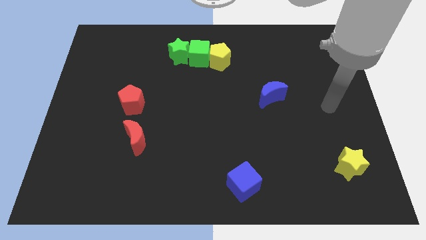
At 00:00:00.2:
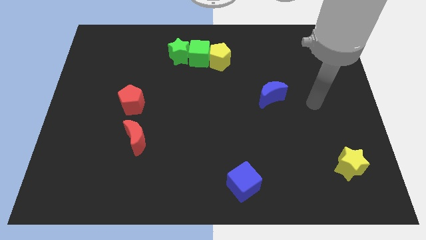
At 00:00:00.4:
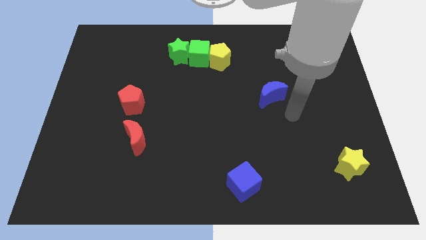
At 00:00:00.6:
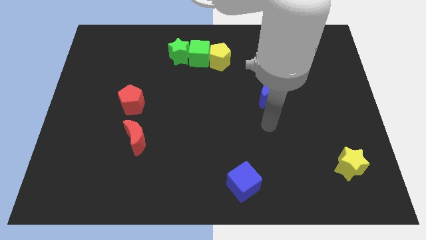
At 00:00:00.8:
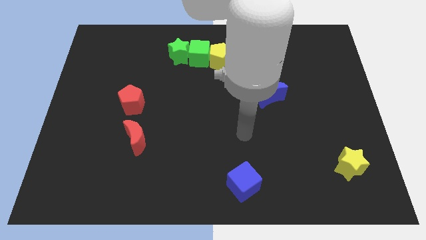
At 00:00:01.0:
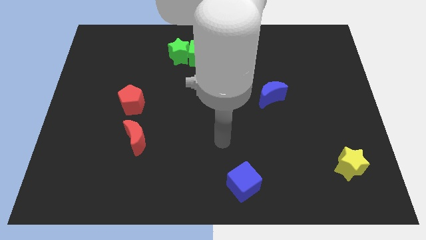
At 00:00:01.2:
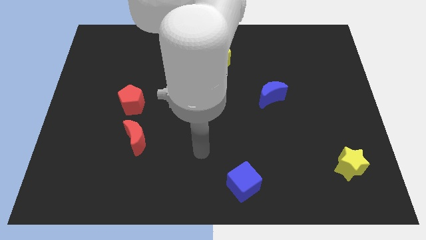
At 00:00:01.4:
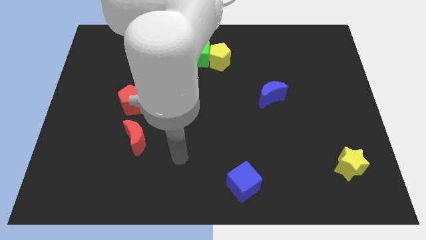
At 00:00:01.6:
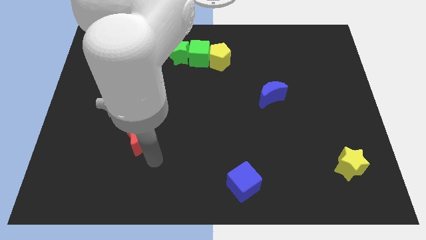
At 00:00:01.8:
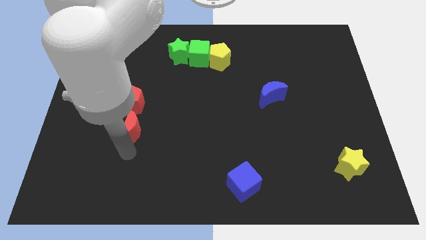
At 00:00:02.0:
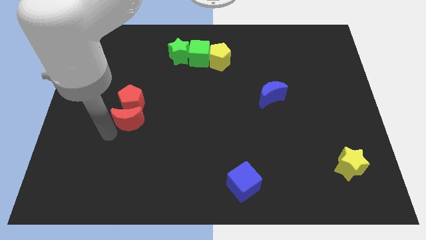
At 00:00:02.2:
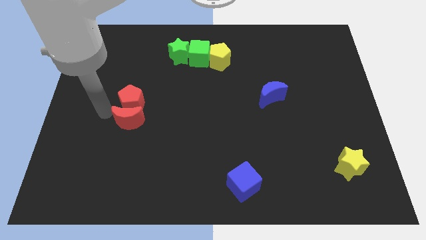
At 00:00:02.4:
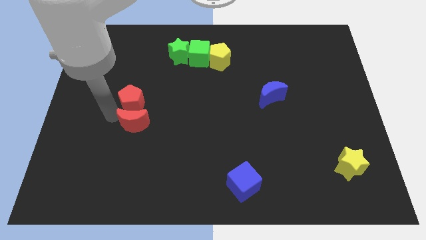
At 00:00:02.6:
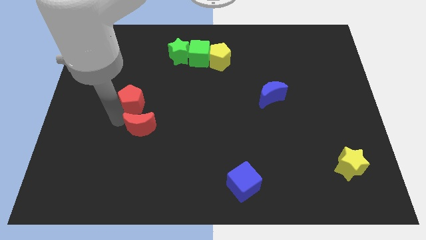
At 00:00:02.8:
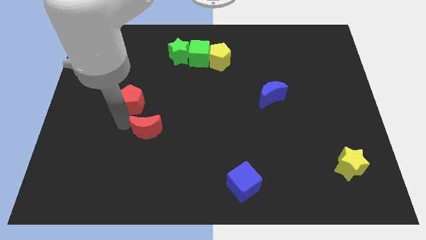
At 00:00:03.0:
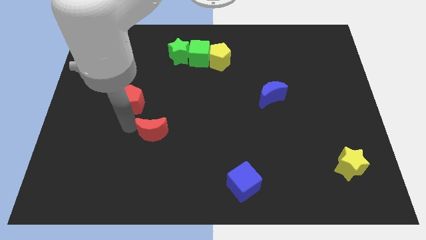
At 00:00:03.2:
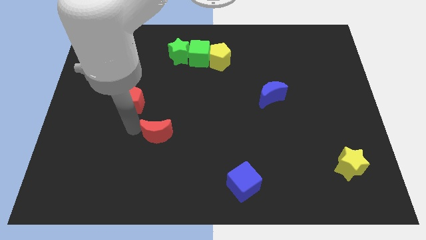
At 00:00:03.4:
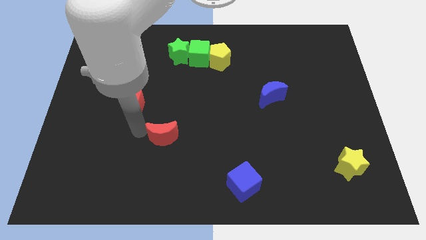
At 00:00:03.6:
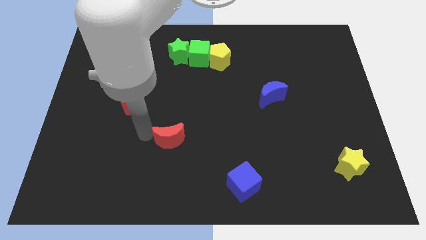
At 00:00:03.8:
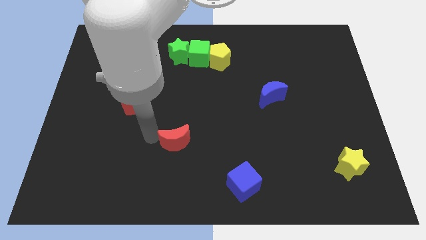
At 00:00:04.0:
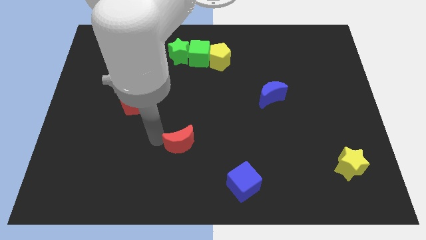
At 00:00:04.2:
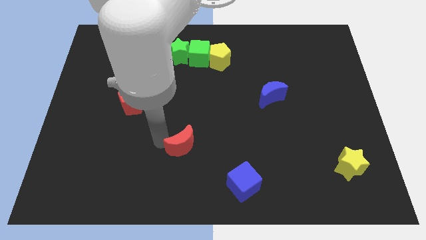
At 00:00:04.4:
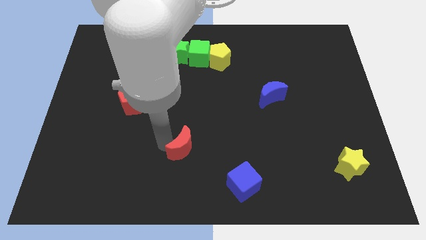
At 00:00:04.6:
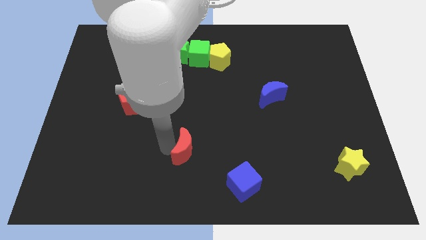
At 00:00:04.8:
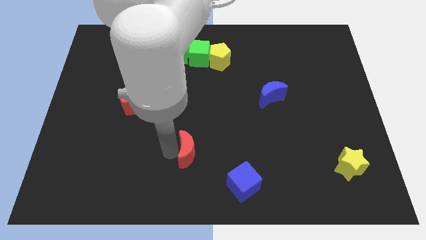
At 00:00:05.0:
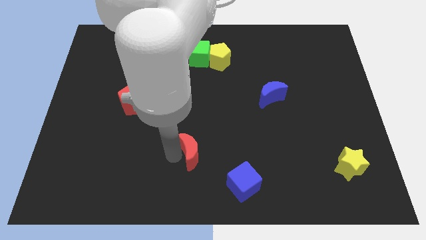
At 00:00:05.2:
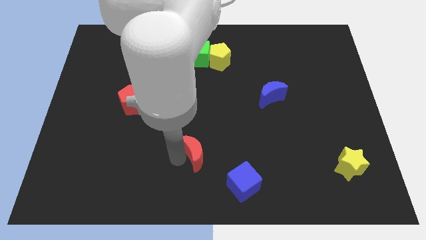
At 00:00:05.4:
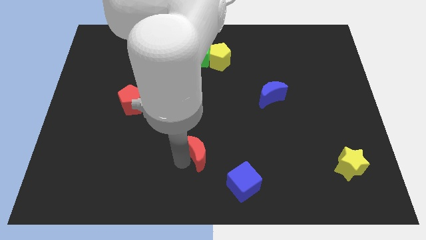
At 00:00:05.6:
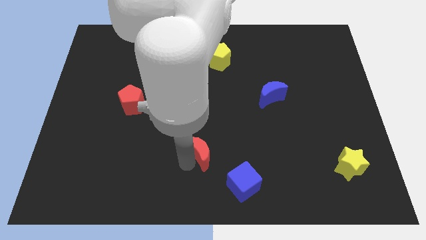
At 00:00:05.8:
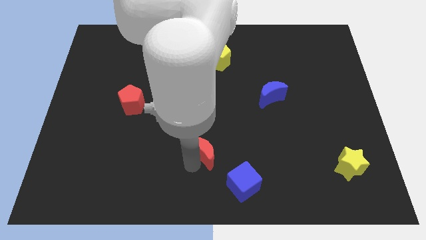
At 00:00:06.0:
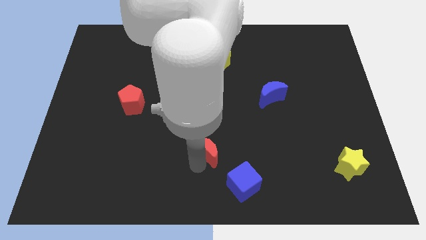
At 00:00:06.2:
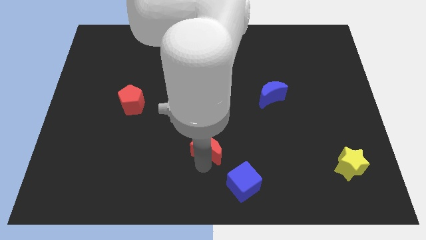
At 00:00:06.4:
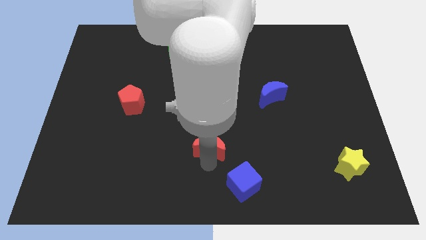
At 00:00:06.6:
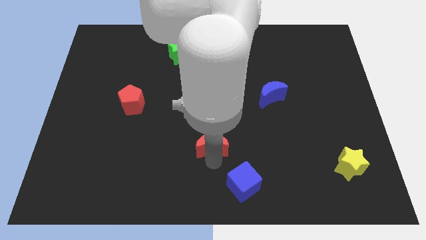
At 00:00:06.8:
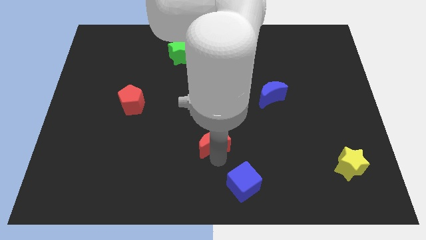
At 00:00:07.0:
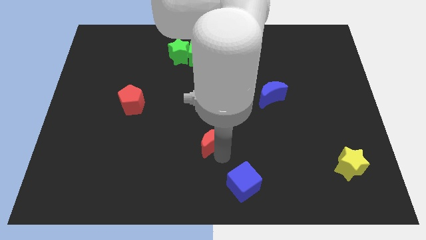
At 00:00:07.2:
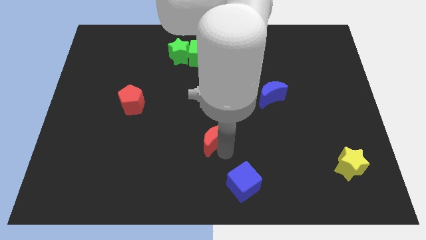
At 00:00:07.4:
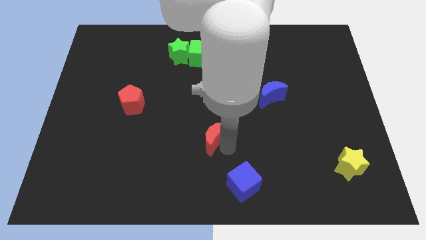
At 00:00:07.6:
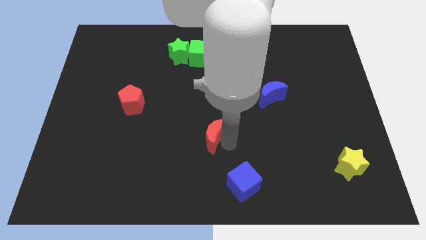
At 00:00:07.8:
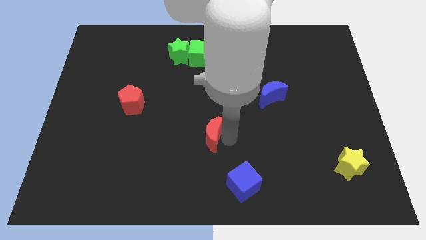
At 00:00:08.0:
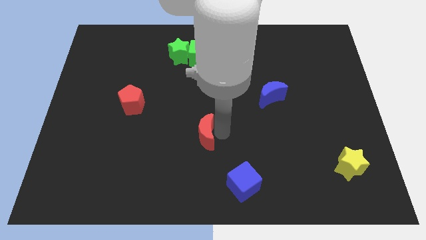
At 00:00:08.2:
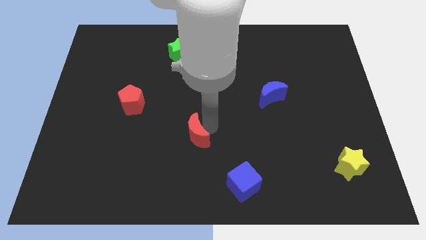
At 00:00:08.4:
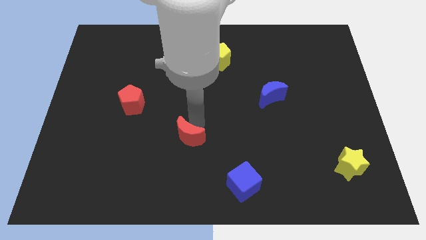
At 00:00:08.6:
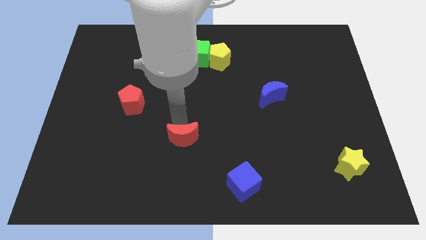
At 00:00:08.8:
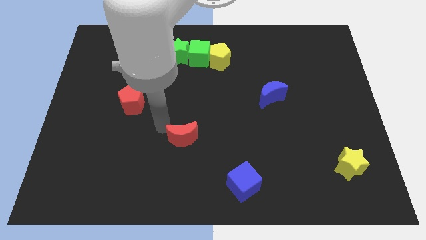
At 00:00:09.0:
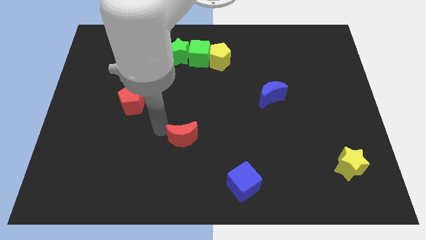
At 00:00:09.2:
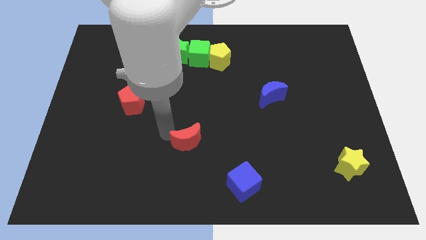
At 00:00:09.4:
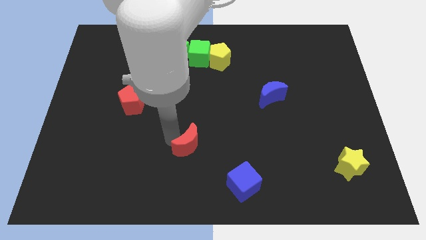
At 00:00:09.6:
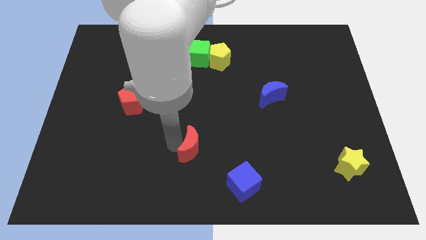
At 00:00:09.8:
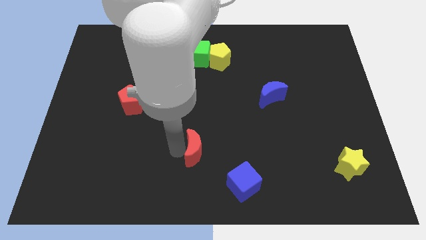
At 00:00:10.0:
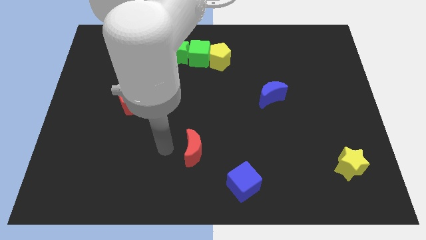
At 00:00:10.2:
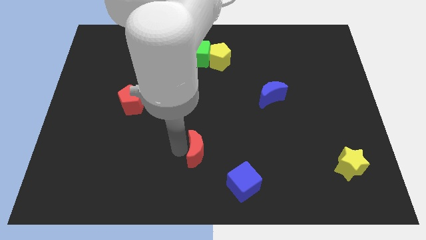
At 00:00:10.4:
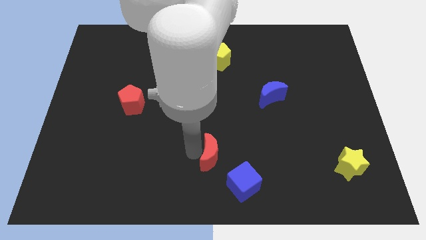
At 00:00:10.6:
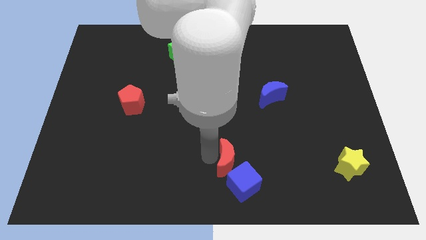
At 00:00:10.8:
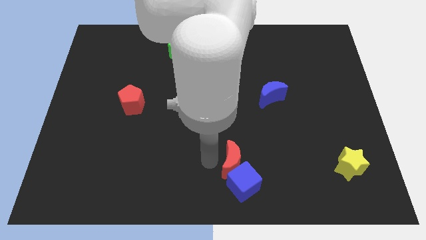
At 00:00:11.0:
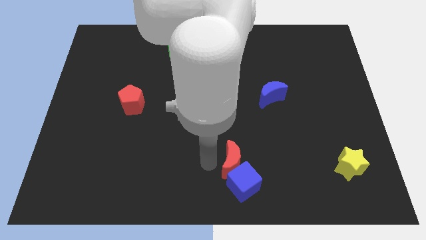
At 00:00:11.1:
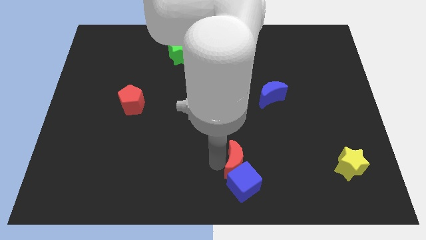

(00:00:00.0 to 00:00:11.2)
push the red moon to the top right side of the blue cube

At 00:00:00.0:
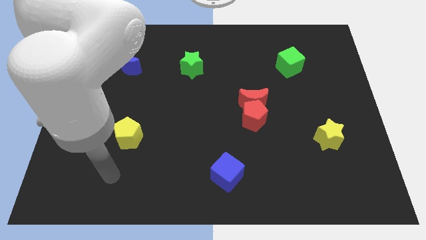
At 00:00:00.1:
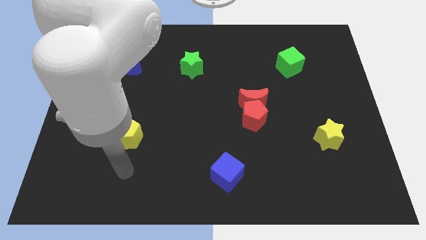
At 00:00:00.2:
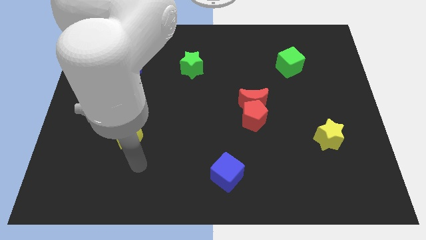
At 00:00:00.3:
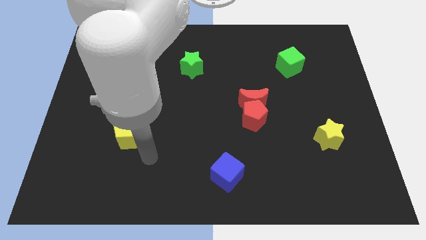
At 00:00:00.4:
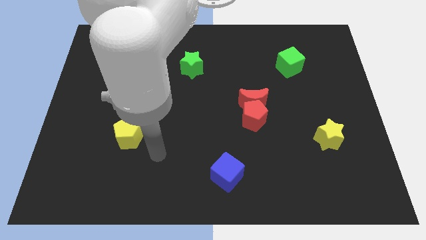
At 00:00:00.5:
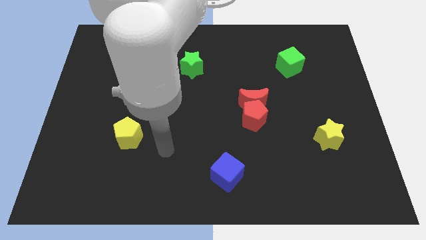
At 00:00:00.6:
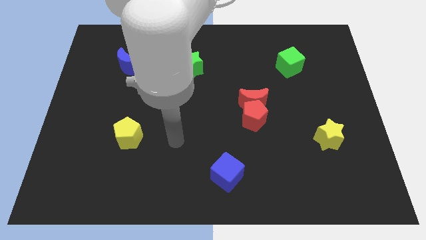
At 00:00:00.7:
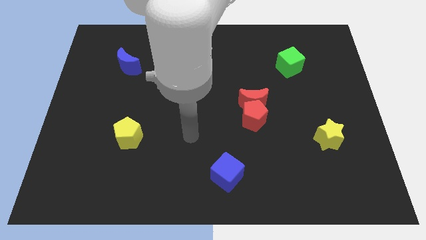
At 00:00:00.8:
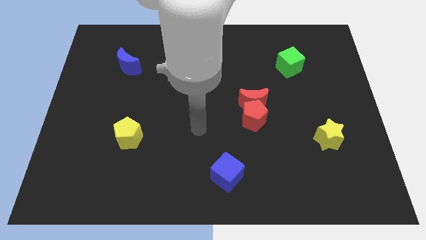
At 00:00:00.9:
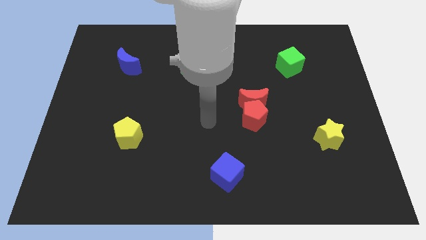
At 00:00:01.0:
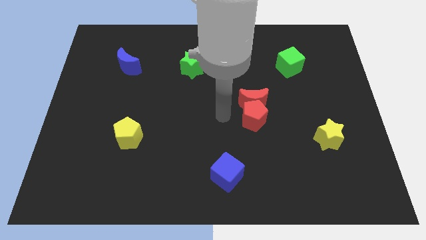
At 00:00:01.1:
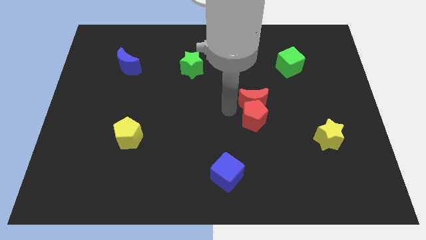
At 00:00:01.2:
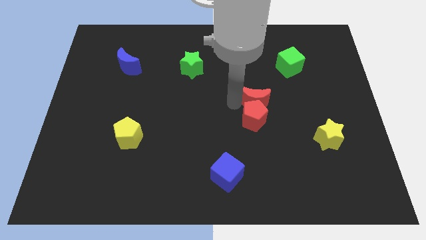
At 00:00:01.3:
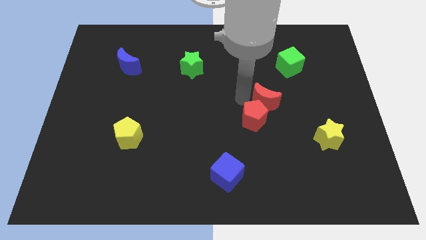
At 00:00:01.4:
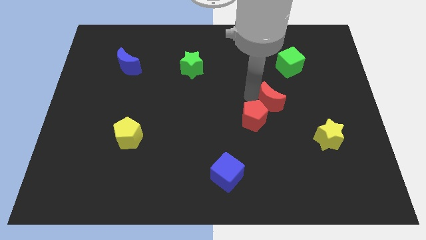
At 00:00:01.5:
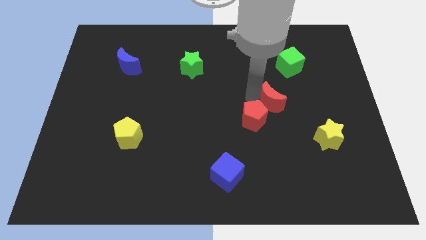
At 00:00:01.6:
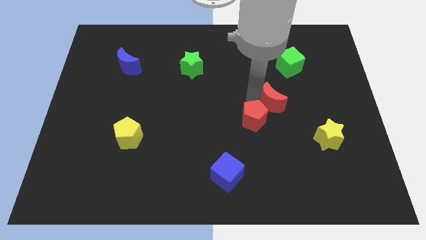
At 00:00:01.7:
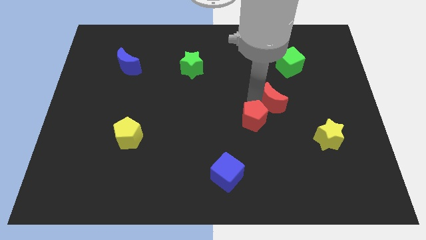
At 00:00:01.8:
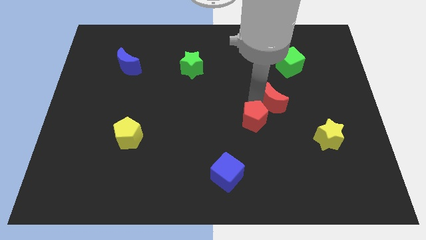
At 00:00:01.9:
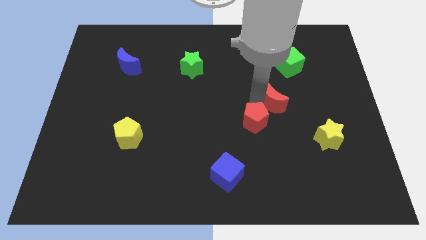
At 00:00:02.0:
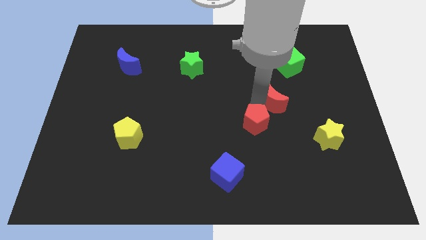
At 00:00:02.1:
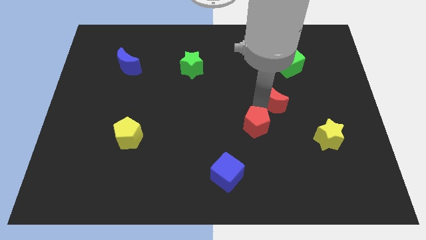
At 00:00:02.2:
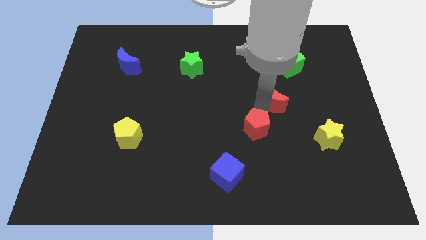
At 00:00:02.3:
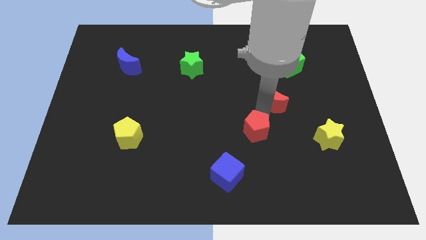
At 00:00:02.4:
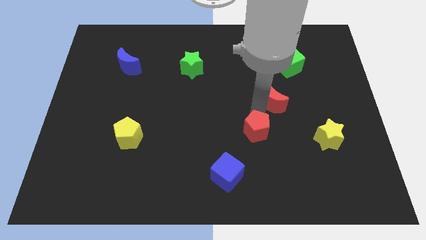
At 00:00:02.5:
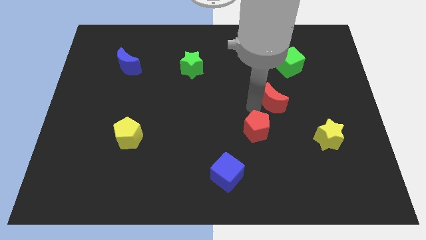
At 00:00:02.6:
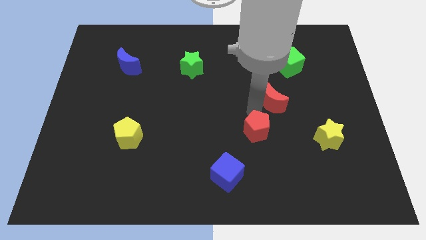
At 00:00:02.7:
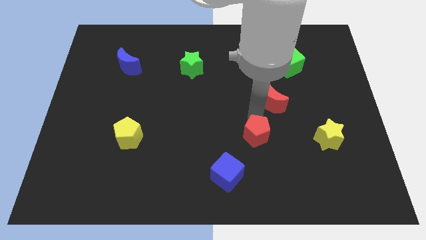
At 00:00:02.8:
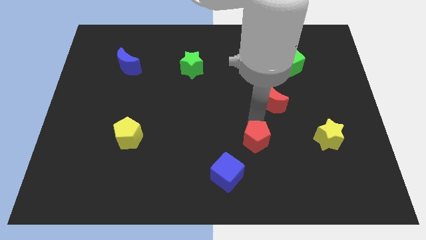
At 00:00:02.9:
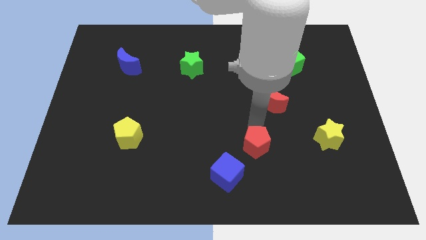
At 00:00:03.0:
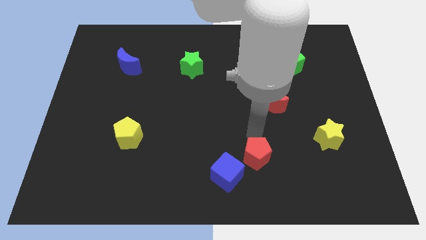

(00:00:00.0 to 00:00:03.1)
put the red pentagon just right of the blue cube
